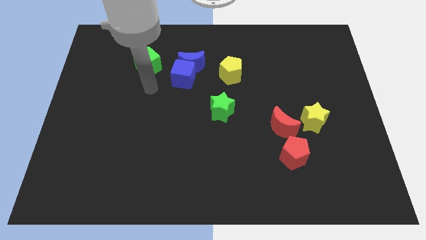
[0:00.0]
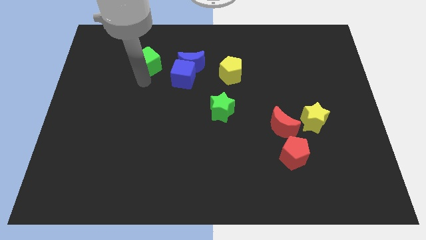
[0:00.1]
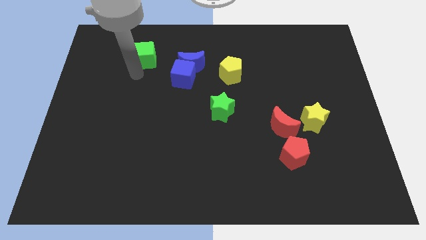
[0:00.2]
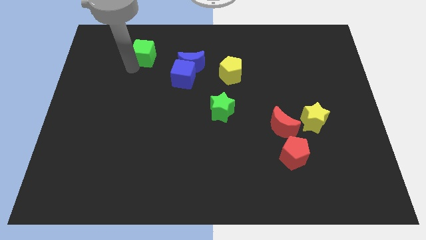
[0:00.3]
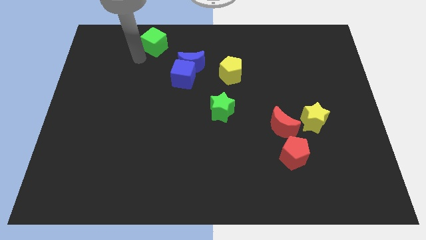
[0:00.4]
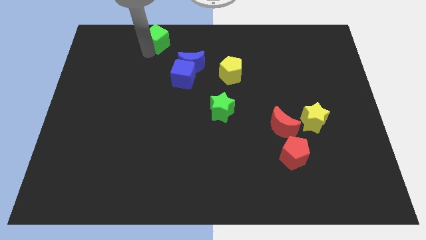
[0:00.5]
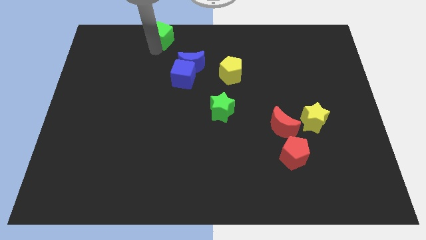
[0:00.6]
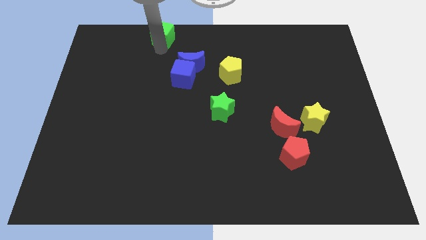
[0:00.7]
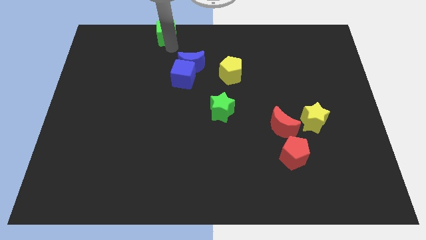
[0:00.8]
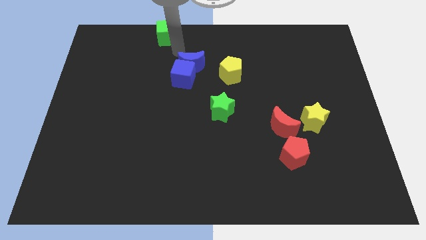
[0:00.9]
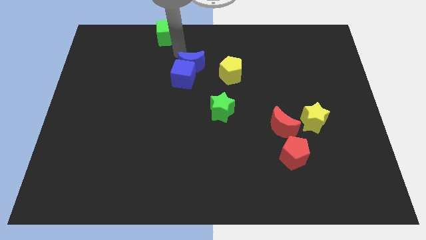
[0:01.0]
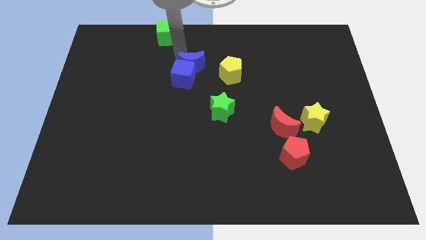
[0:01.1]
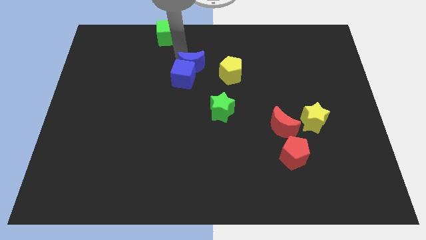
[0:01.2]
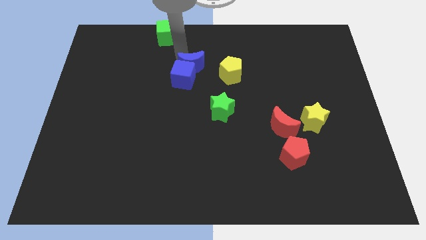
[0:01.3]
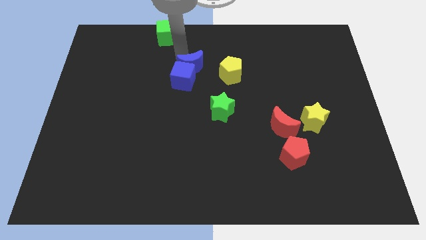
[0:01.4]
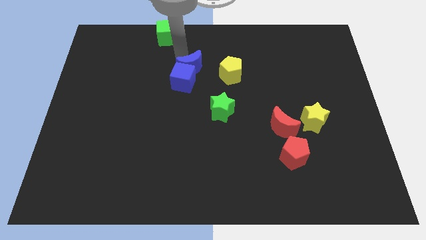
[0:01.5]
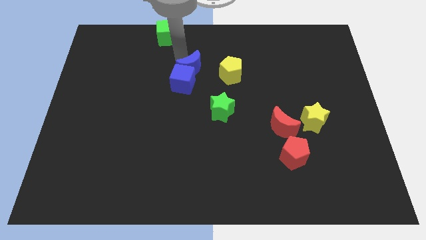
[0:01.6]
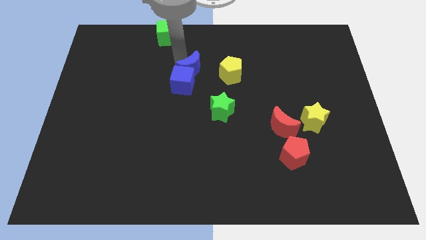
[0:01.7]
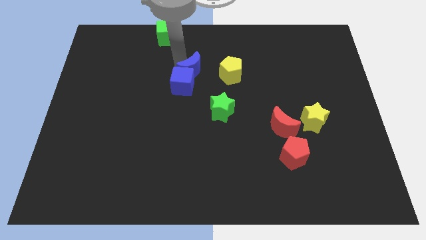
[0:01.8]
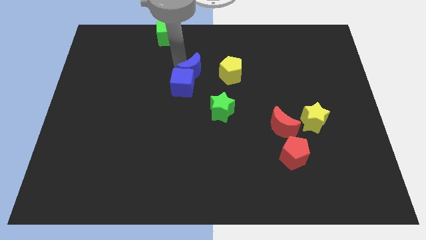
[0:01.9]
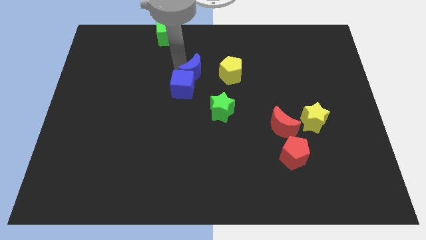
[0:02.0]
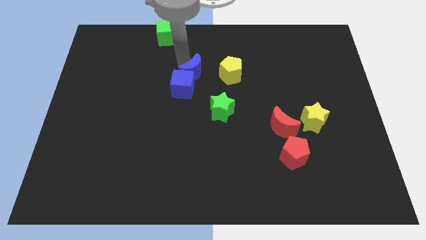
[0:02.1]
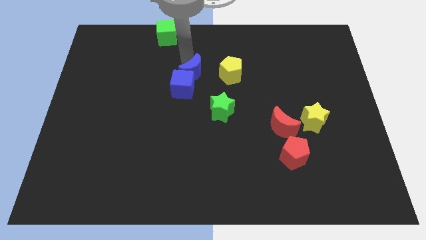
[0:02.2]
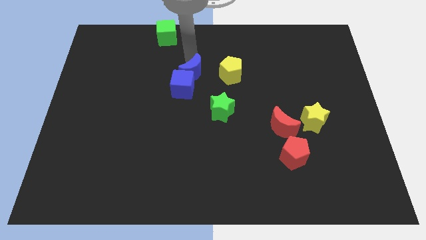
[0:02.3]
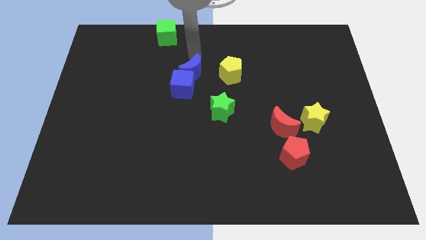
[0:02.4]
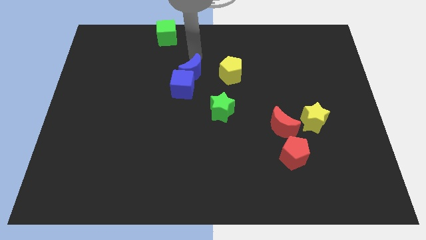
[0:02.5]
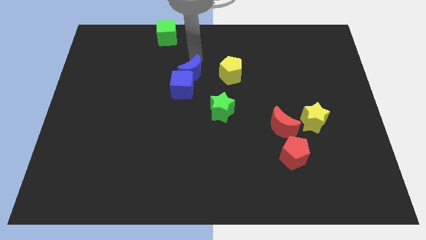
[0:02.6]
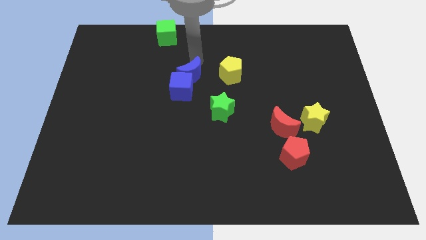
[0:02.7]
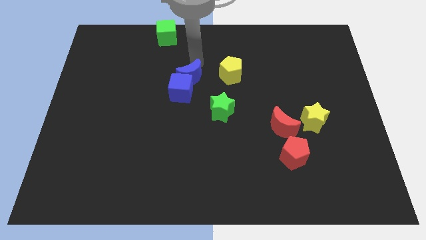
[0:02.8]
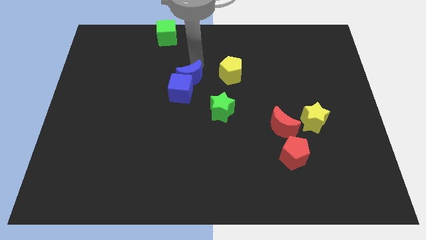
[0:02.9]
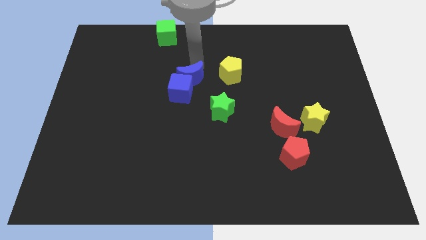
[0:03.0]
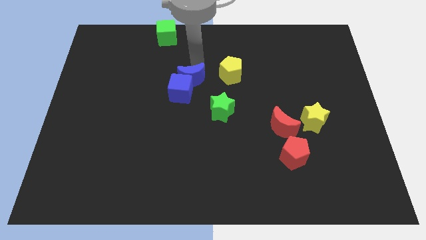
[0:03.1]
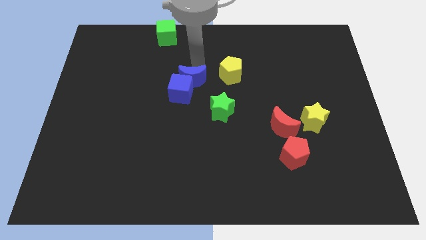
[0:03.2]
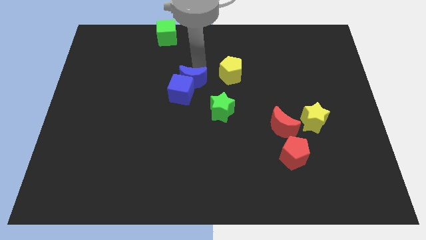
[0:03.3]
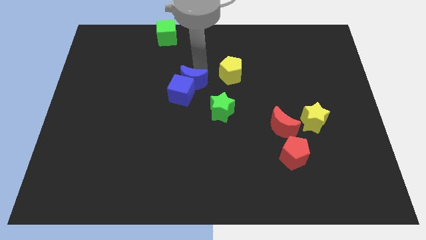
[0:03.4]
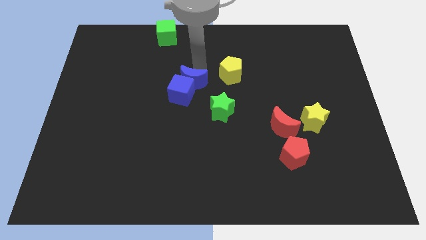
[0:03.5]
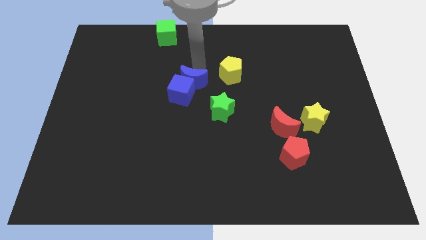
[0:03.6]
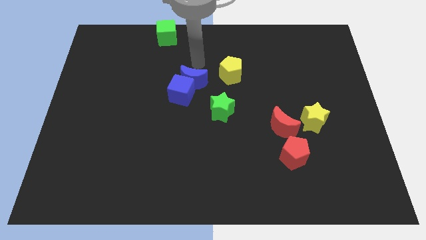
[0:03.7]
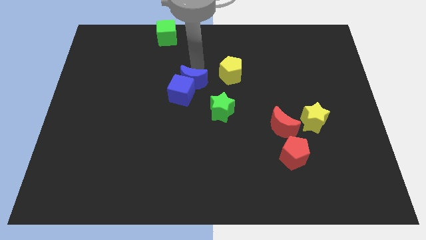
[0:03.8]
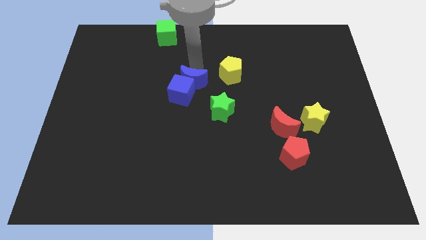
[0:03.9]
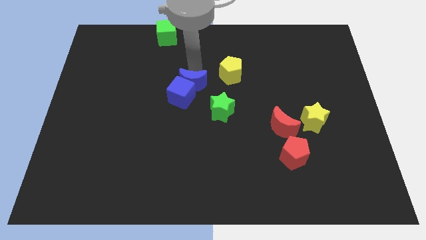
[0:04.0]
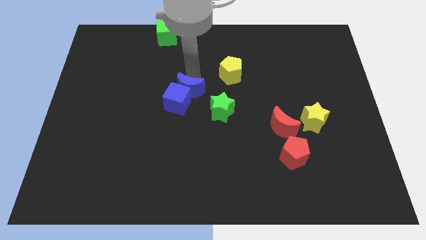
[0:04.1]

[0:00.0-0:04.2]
slightly push the blue moon down

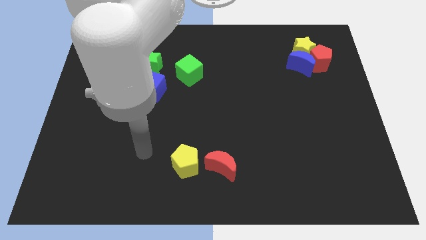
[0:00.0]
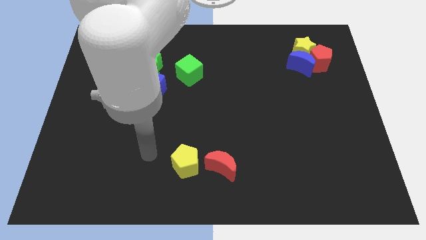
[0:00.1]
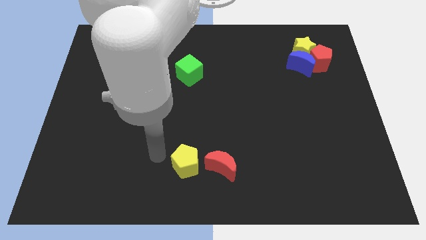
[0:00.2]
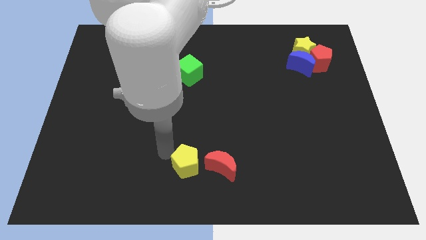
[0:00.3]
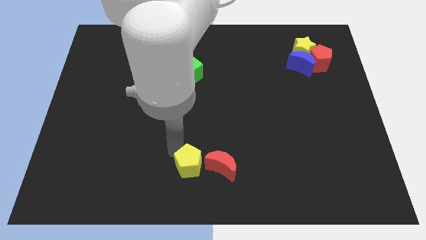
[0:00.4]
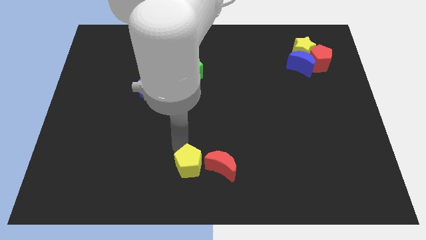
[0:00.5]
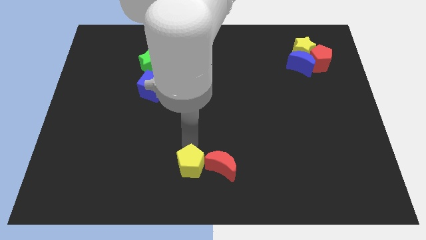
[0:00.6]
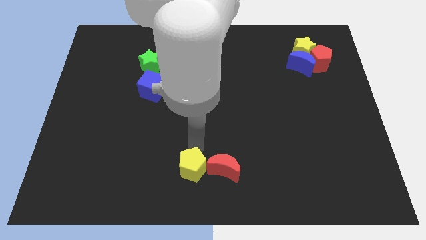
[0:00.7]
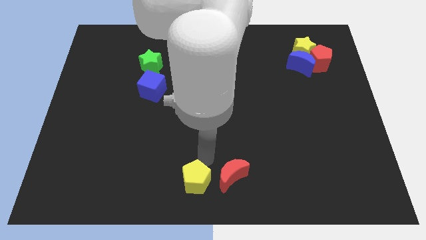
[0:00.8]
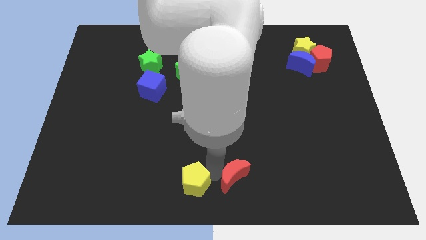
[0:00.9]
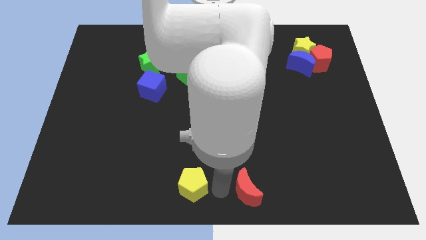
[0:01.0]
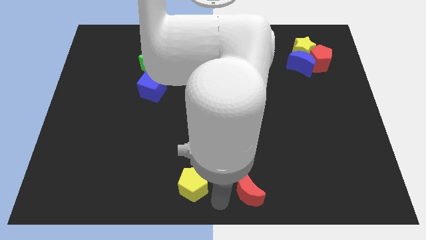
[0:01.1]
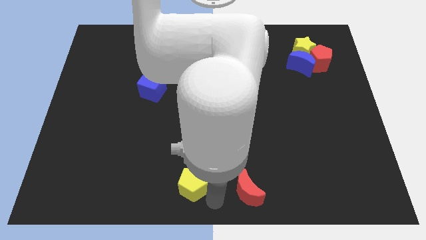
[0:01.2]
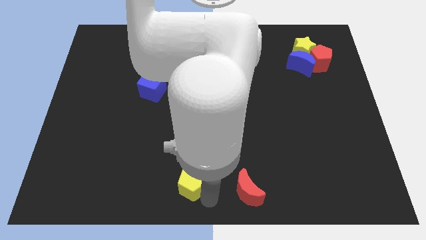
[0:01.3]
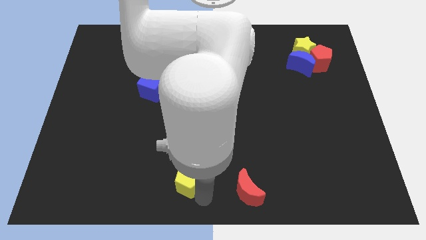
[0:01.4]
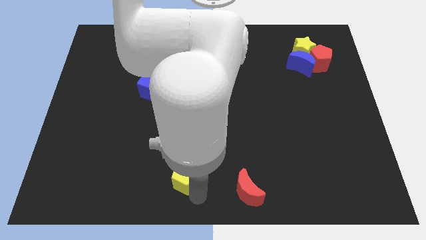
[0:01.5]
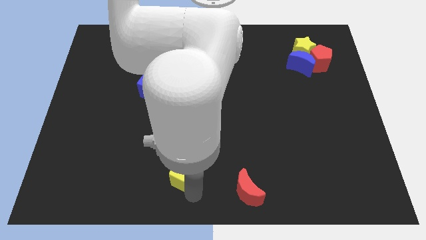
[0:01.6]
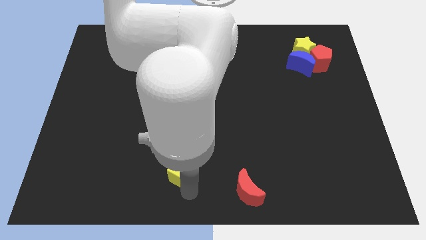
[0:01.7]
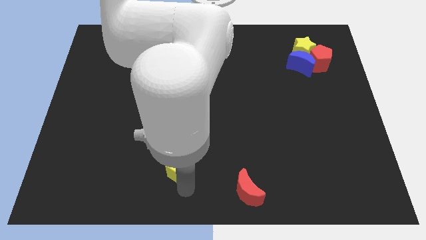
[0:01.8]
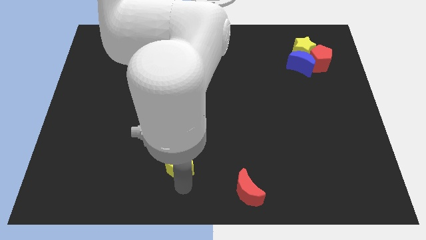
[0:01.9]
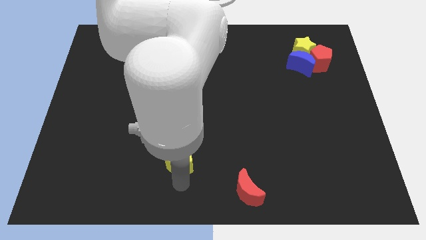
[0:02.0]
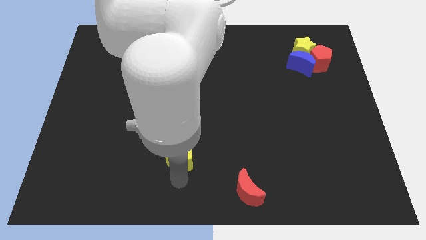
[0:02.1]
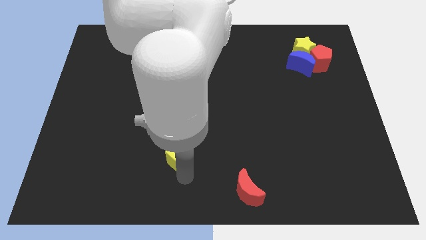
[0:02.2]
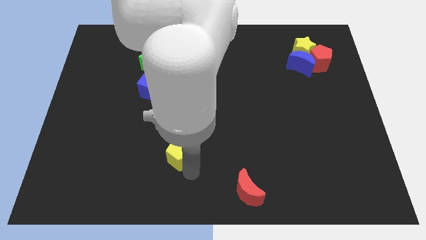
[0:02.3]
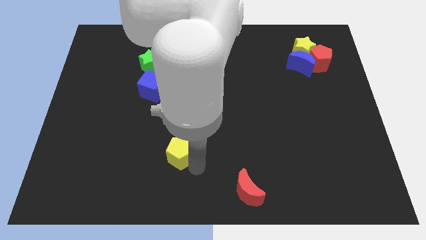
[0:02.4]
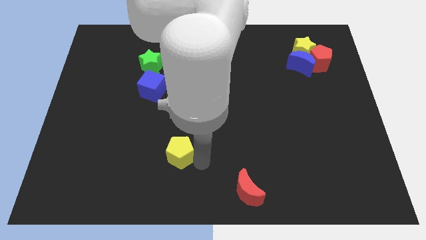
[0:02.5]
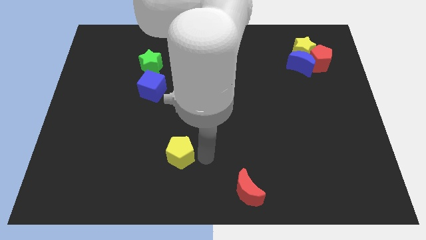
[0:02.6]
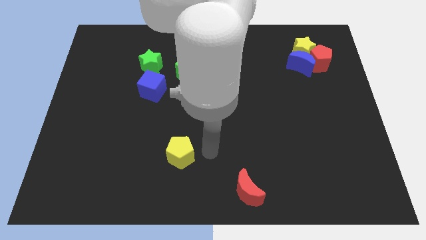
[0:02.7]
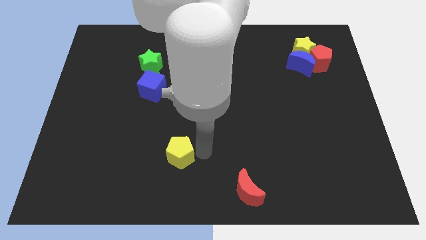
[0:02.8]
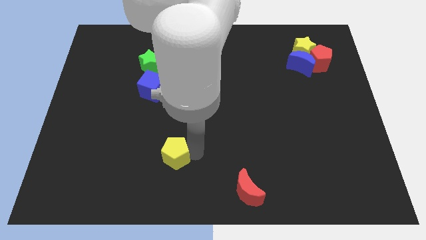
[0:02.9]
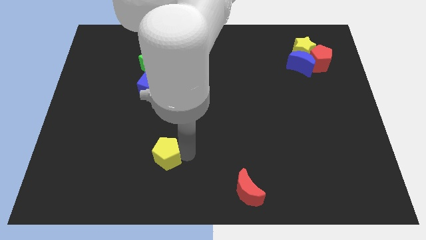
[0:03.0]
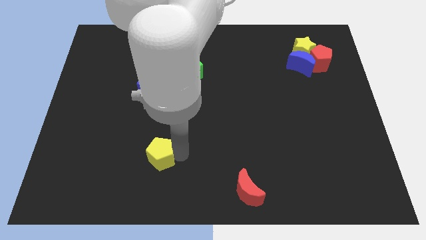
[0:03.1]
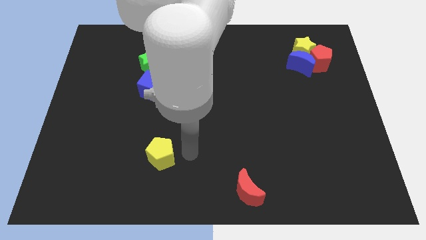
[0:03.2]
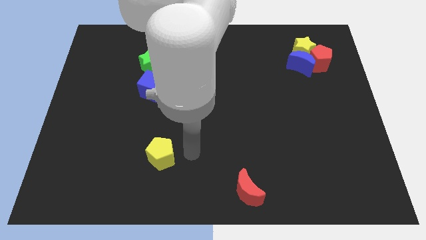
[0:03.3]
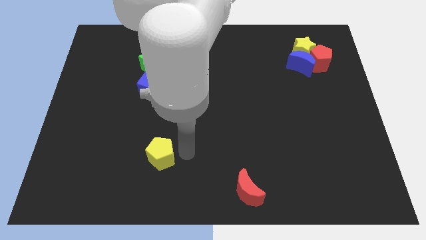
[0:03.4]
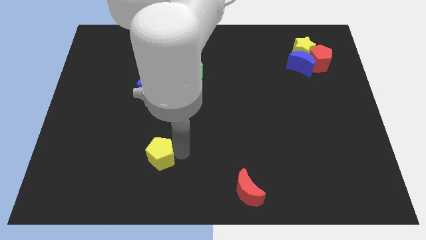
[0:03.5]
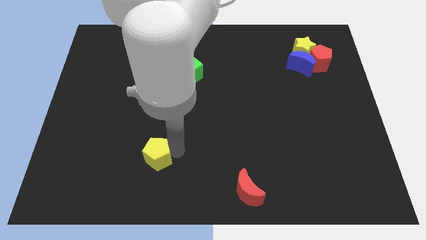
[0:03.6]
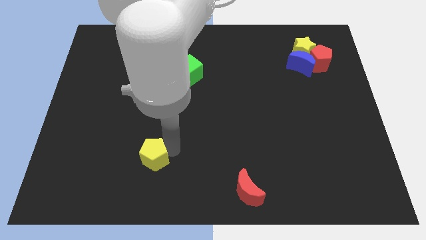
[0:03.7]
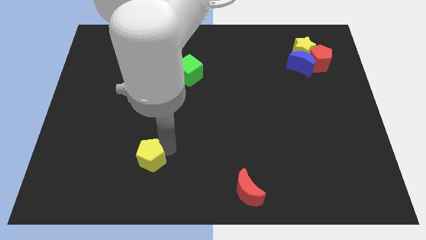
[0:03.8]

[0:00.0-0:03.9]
move the yellow pentagon left somewhat
